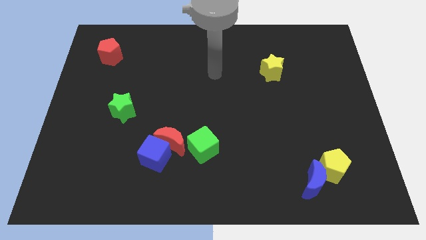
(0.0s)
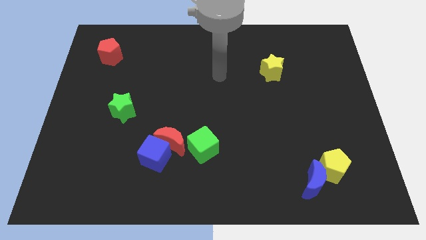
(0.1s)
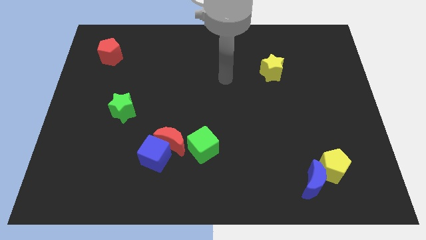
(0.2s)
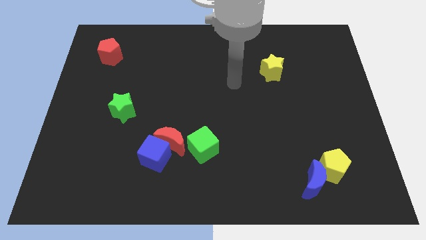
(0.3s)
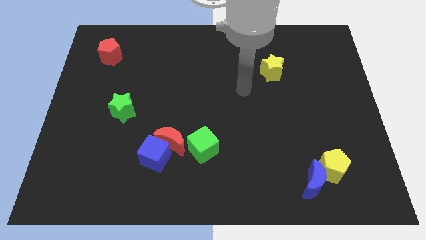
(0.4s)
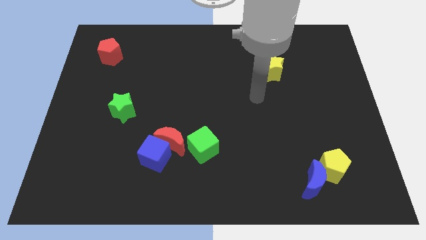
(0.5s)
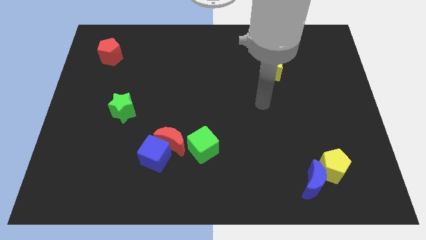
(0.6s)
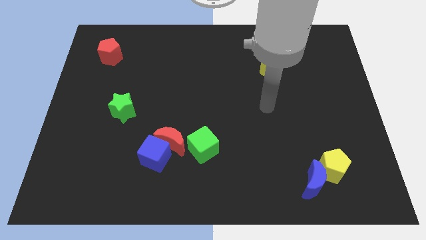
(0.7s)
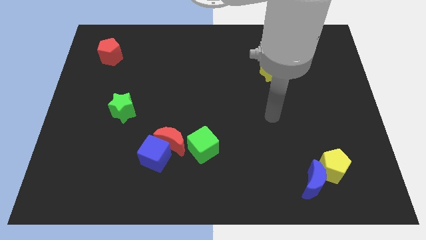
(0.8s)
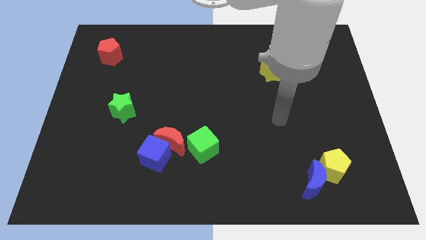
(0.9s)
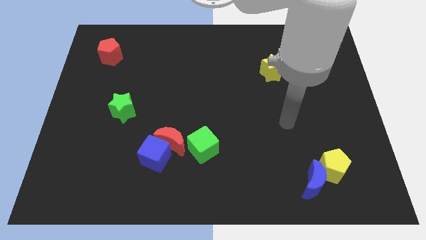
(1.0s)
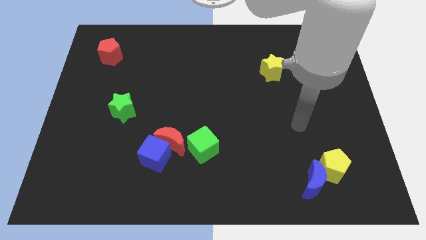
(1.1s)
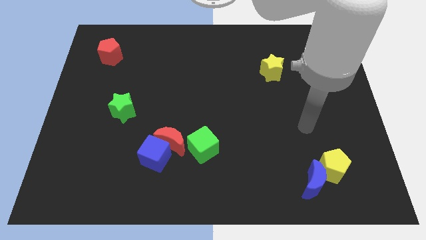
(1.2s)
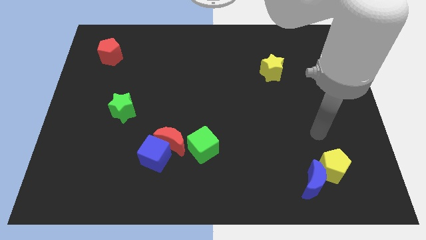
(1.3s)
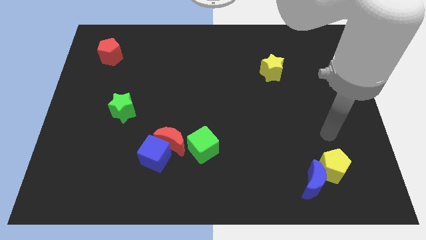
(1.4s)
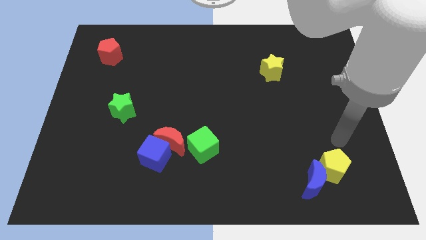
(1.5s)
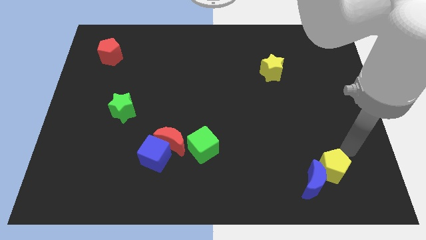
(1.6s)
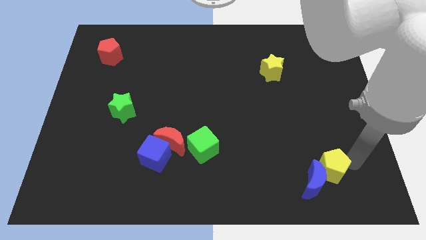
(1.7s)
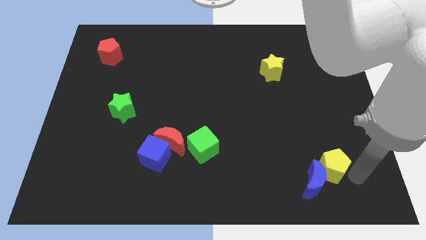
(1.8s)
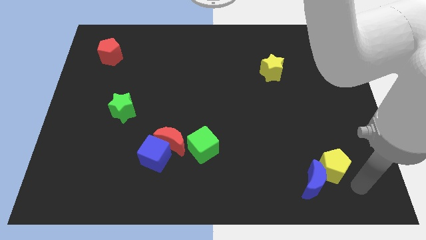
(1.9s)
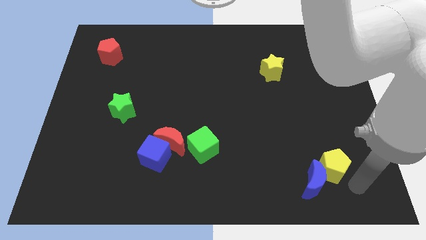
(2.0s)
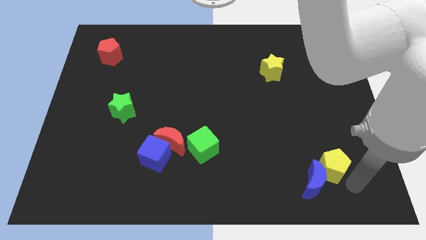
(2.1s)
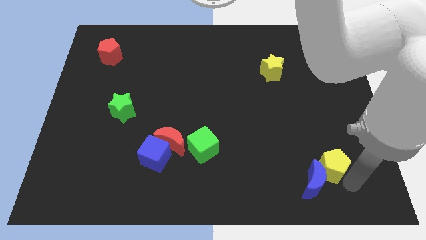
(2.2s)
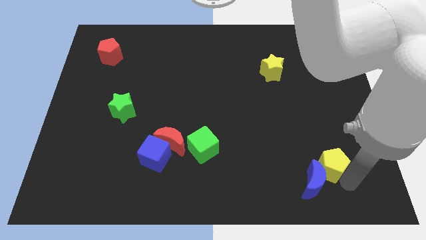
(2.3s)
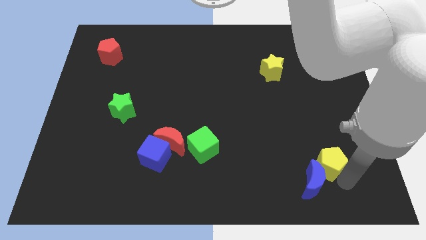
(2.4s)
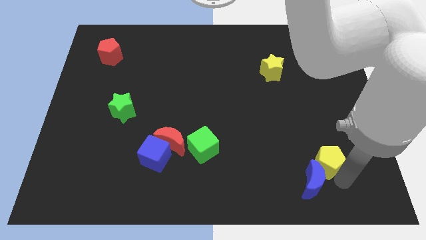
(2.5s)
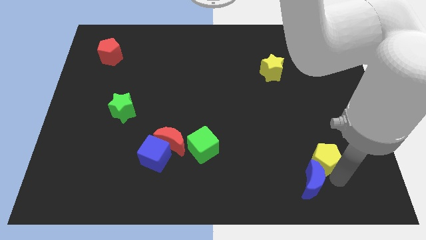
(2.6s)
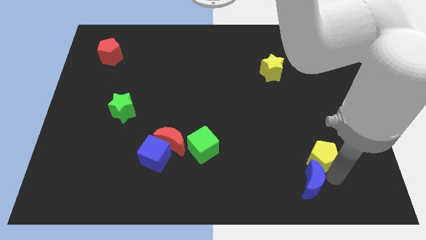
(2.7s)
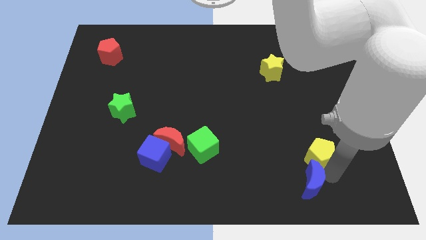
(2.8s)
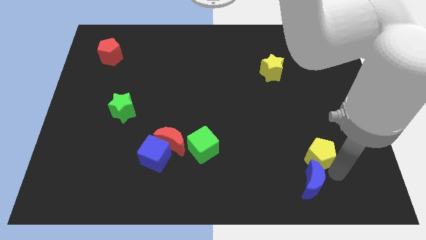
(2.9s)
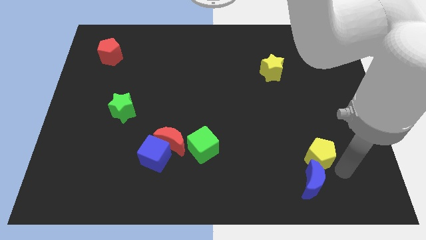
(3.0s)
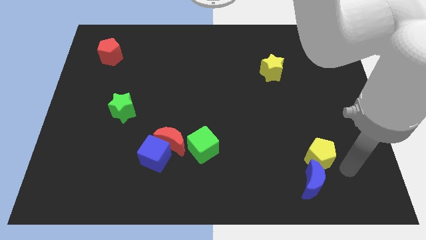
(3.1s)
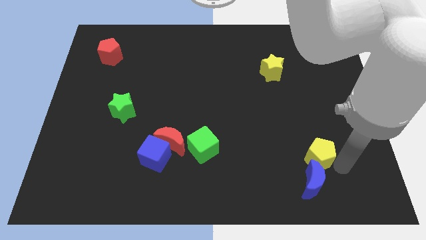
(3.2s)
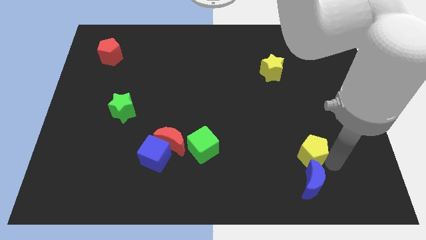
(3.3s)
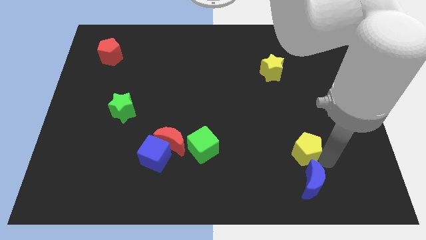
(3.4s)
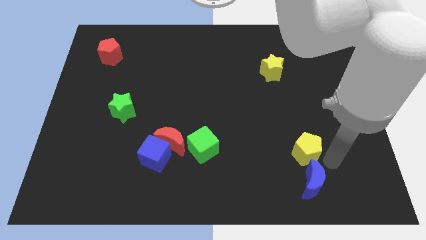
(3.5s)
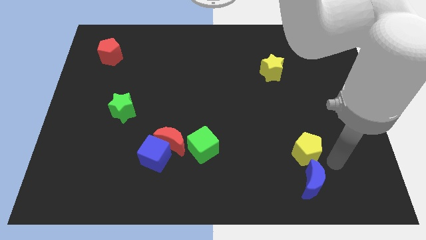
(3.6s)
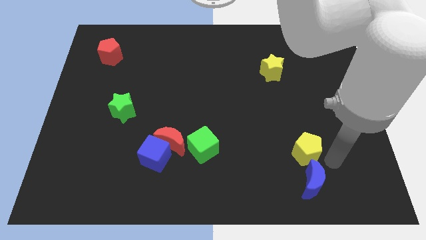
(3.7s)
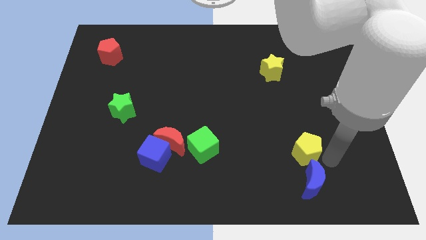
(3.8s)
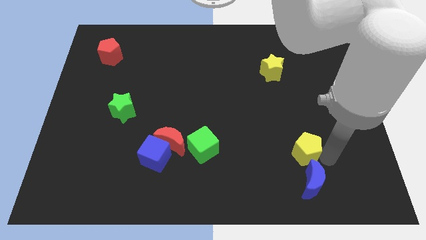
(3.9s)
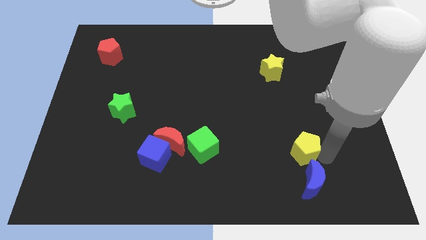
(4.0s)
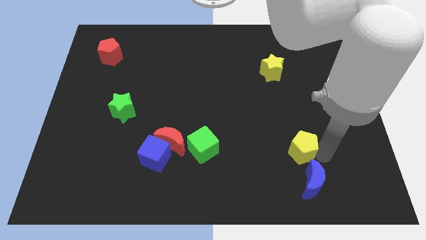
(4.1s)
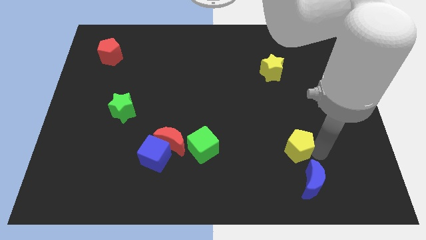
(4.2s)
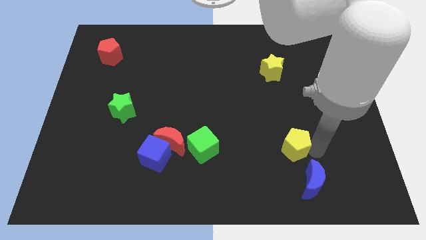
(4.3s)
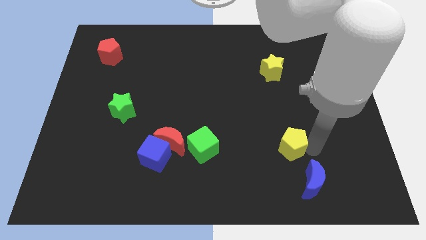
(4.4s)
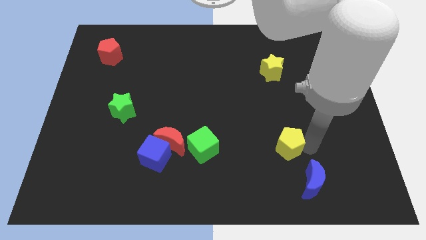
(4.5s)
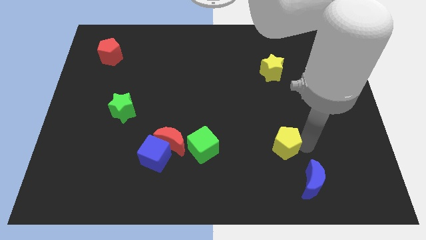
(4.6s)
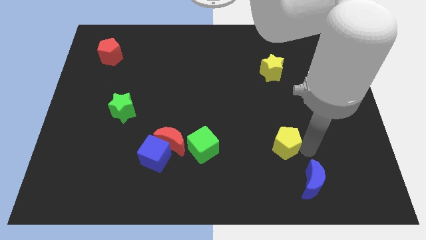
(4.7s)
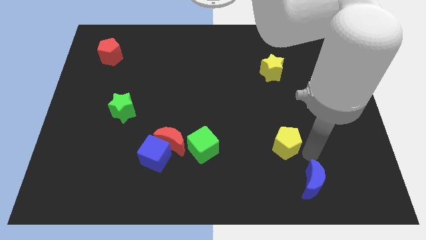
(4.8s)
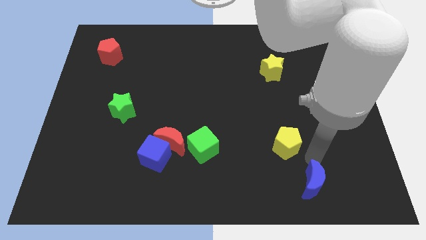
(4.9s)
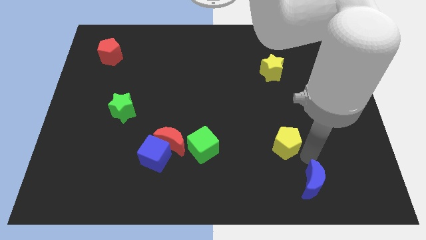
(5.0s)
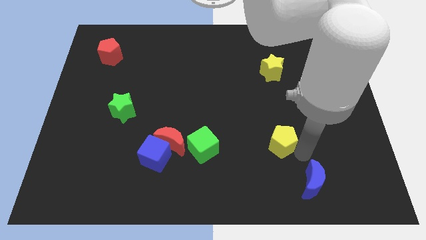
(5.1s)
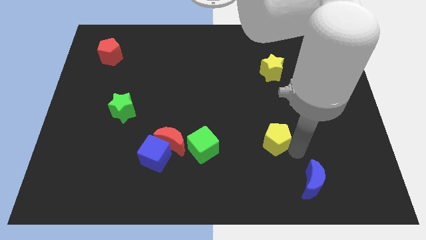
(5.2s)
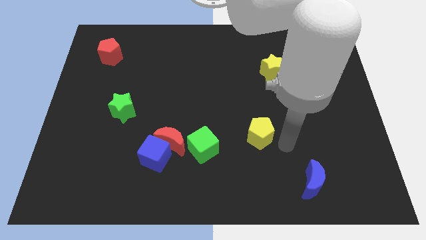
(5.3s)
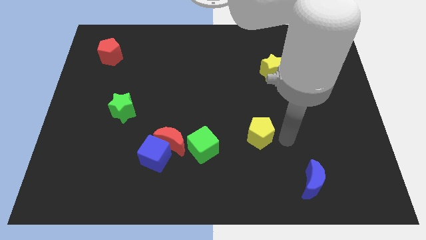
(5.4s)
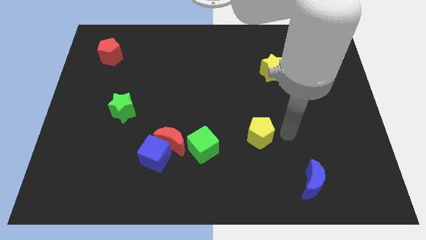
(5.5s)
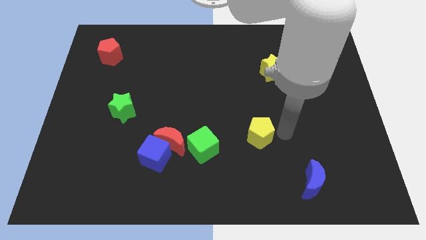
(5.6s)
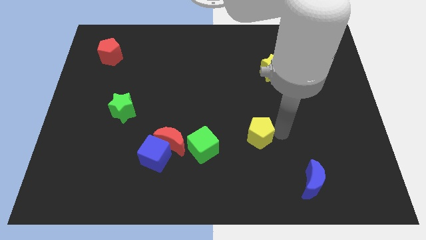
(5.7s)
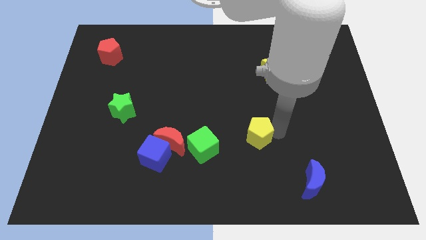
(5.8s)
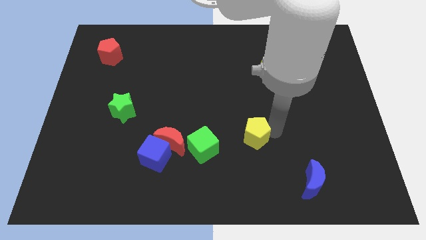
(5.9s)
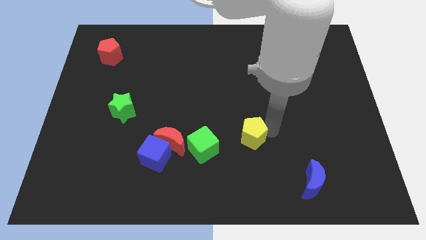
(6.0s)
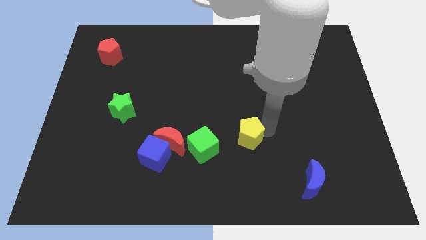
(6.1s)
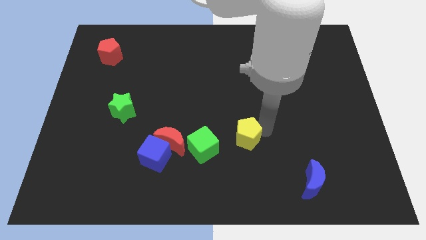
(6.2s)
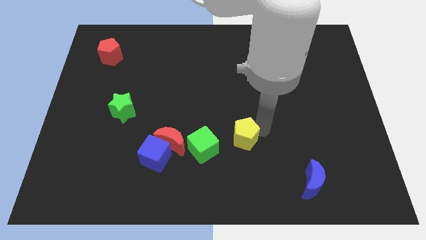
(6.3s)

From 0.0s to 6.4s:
put the yellow pentagon to the right side of the red moon

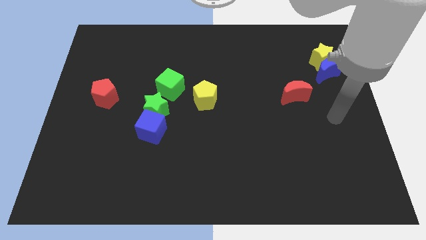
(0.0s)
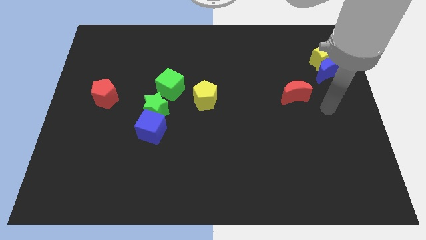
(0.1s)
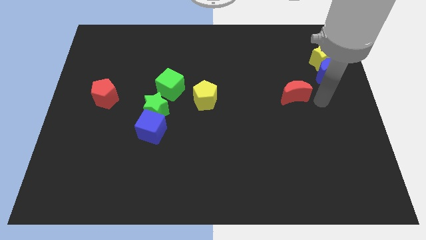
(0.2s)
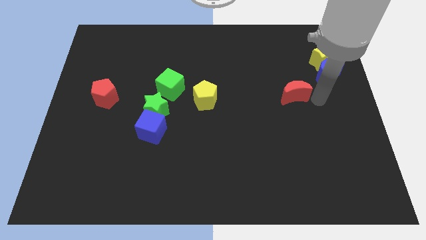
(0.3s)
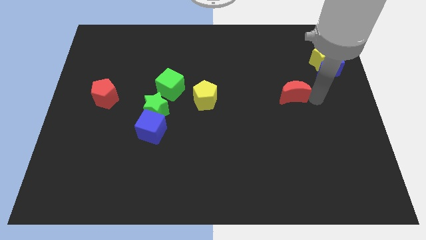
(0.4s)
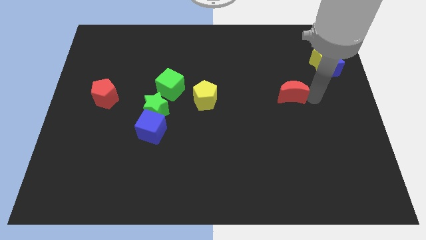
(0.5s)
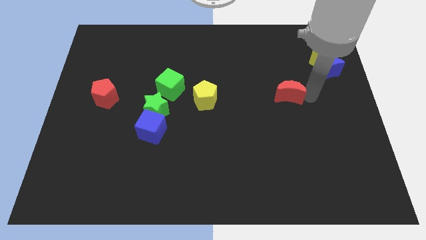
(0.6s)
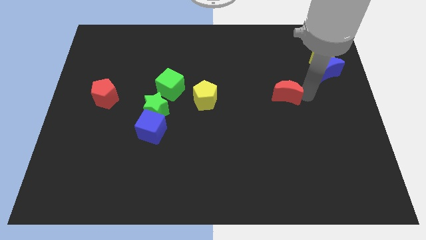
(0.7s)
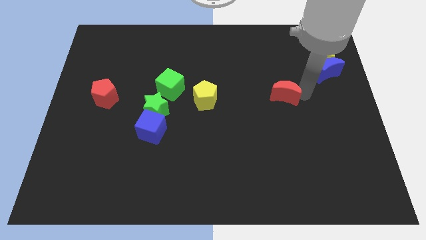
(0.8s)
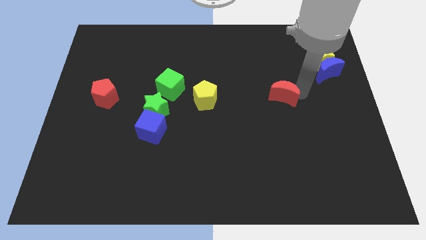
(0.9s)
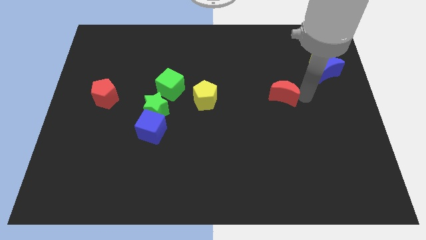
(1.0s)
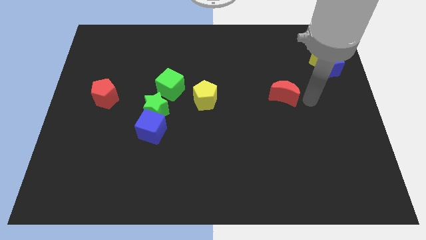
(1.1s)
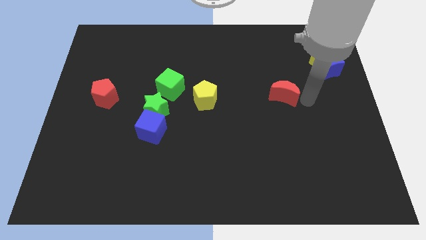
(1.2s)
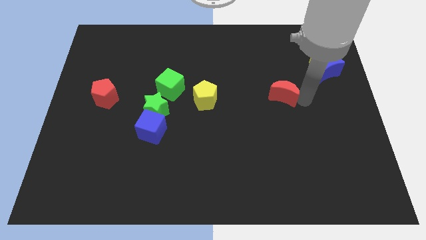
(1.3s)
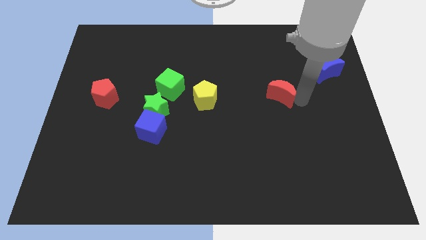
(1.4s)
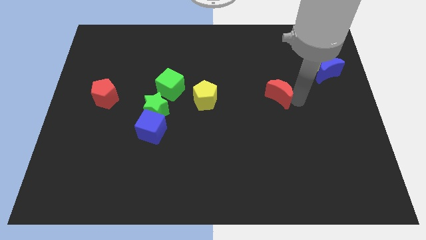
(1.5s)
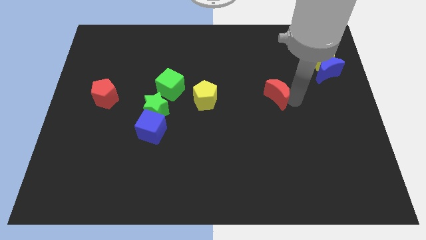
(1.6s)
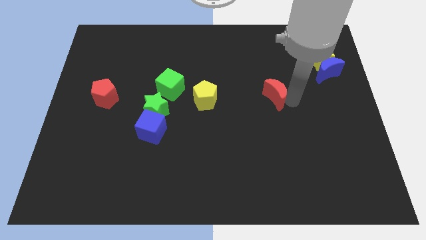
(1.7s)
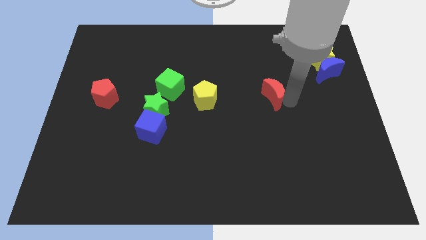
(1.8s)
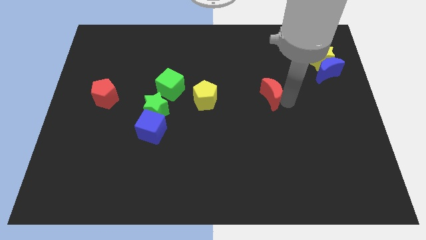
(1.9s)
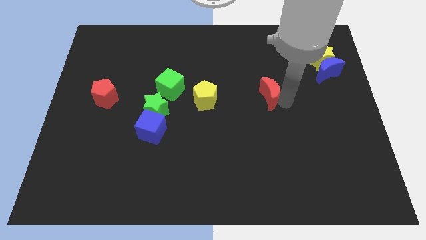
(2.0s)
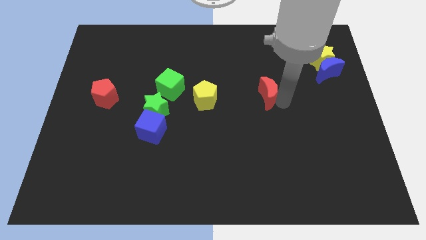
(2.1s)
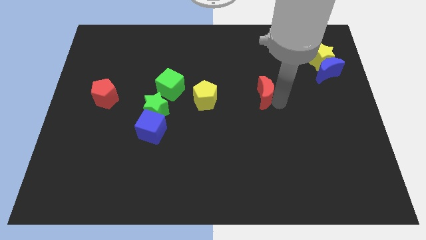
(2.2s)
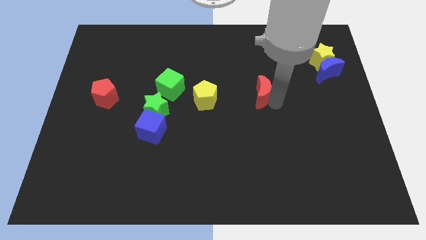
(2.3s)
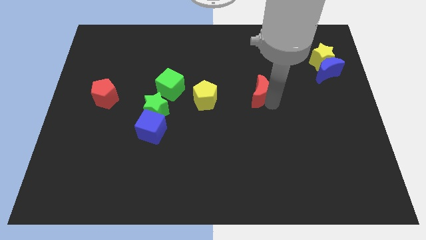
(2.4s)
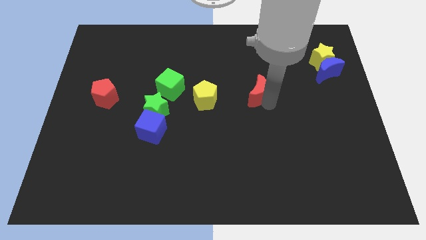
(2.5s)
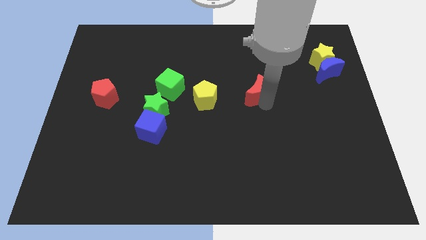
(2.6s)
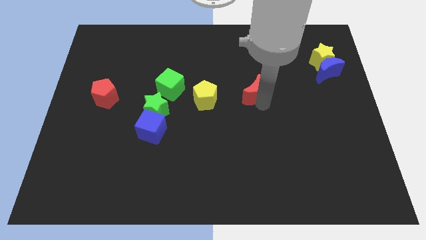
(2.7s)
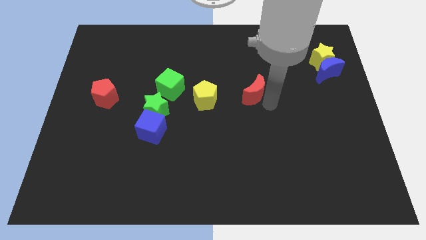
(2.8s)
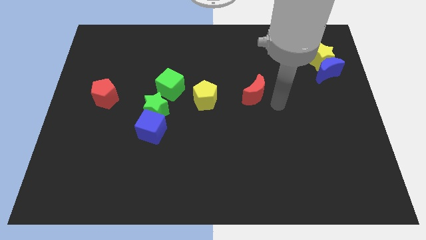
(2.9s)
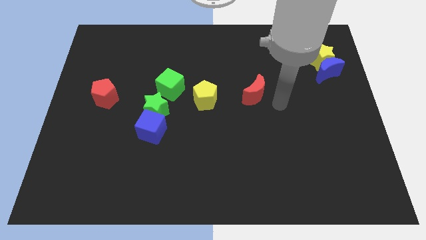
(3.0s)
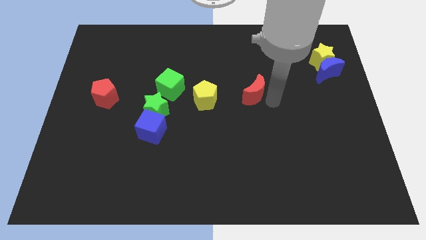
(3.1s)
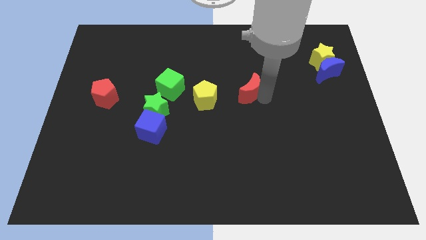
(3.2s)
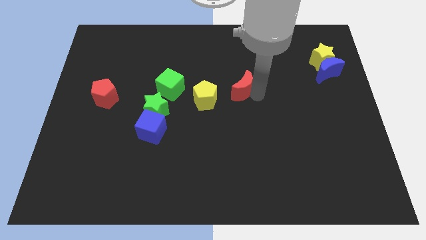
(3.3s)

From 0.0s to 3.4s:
move the red moon to the top right side of the yellow pentagon
